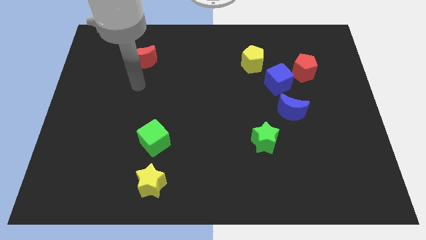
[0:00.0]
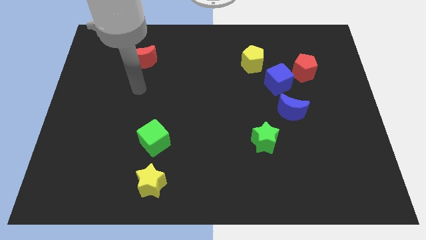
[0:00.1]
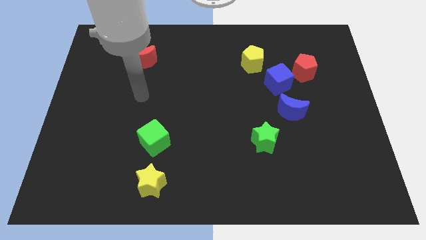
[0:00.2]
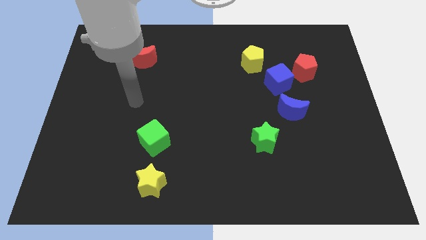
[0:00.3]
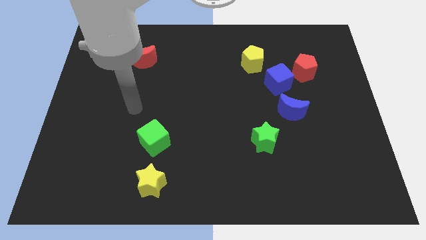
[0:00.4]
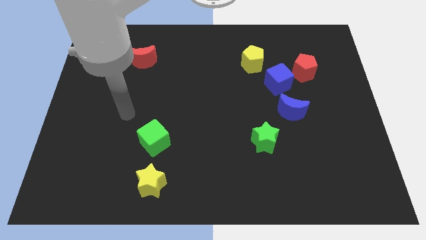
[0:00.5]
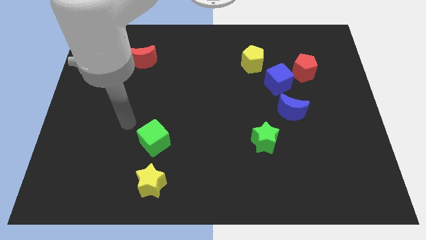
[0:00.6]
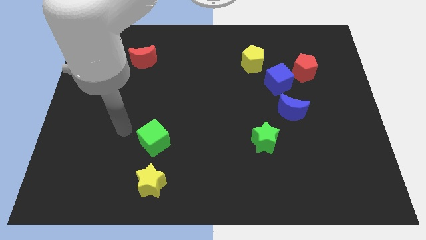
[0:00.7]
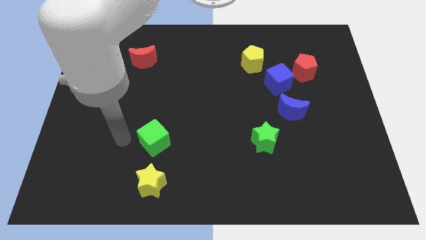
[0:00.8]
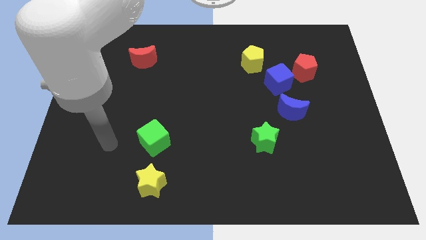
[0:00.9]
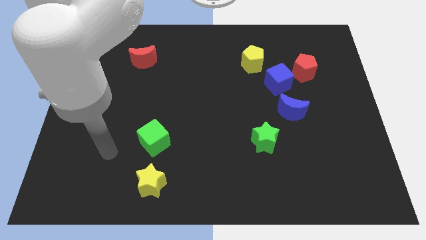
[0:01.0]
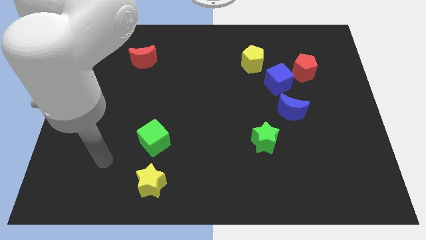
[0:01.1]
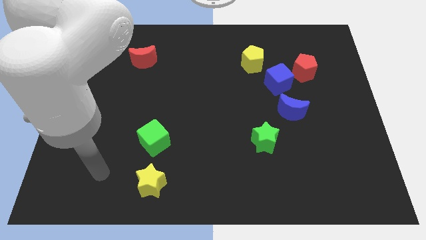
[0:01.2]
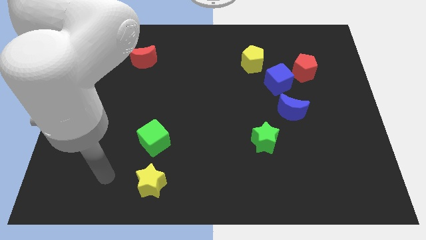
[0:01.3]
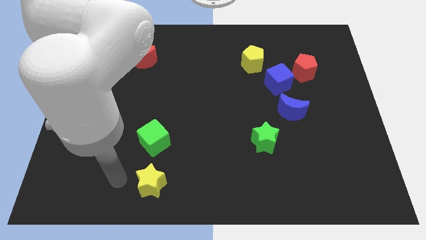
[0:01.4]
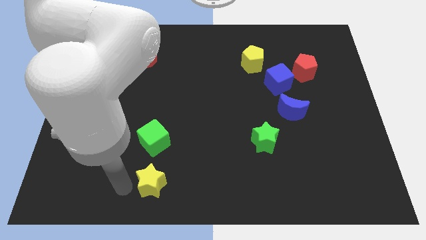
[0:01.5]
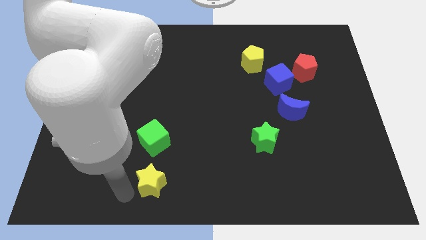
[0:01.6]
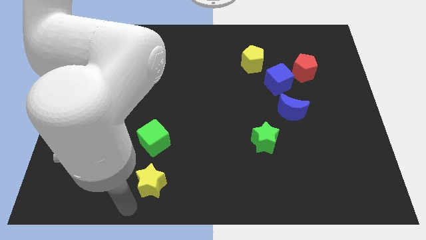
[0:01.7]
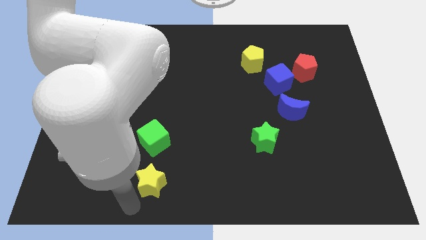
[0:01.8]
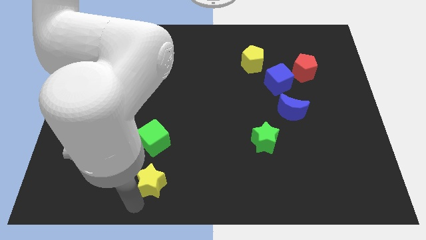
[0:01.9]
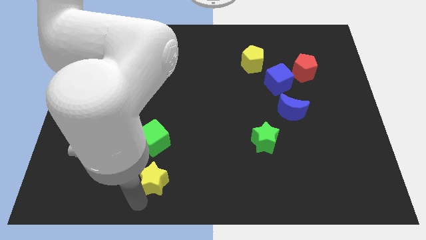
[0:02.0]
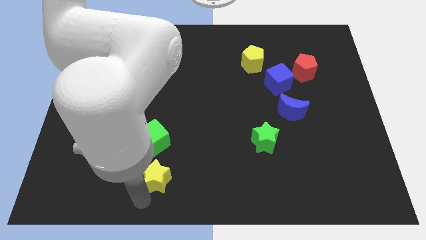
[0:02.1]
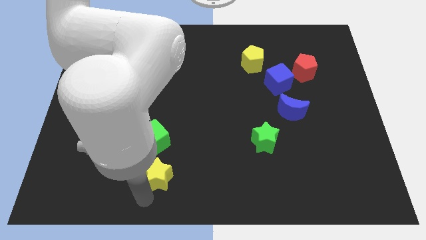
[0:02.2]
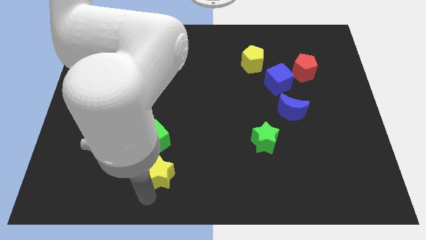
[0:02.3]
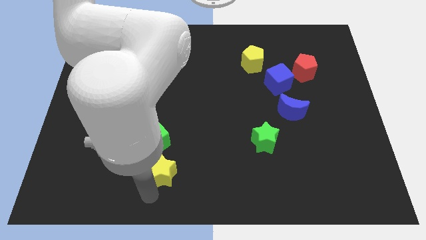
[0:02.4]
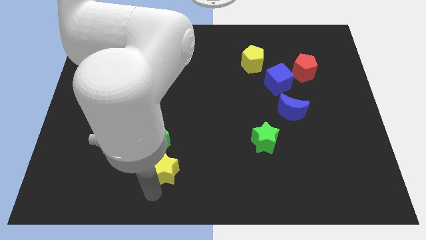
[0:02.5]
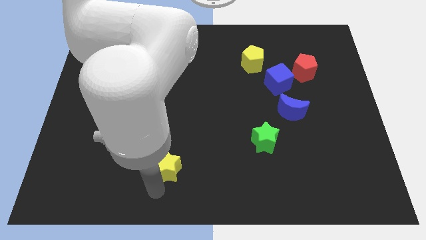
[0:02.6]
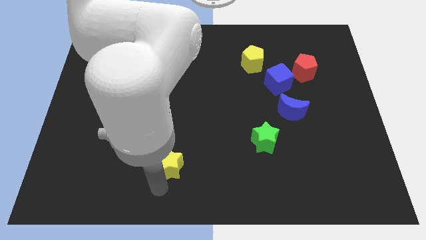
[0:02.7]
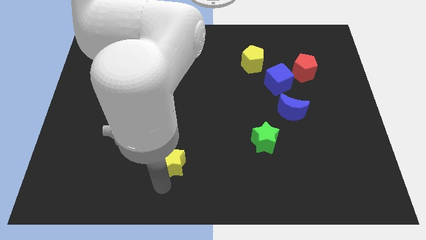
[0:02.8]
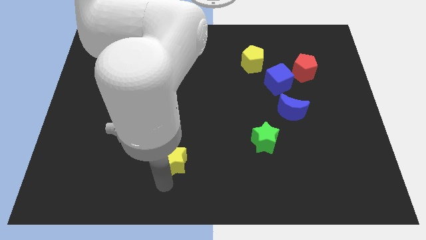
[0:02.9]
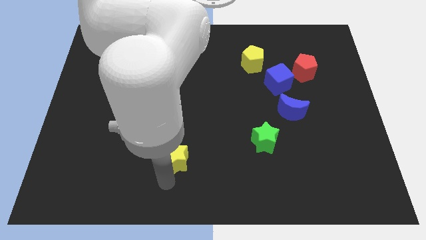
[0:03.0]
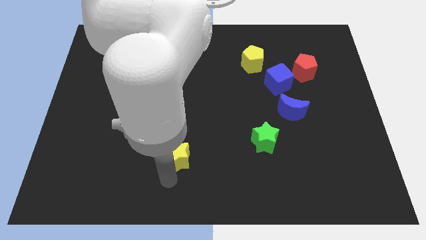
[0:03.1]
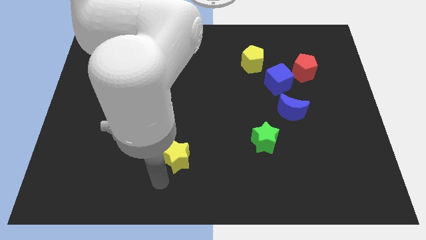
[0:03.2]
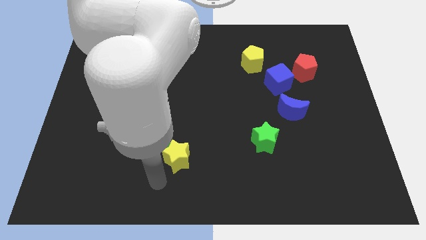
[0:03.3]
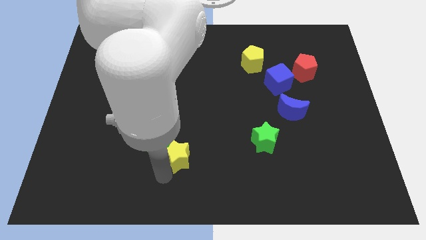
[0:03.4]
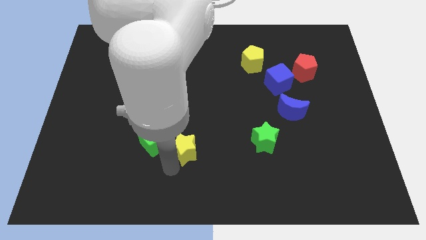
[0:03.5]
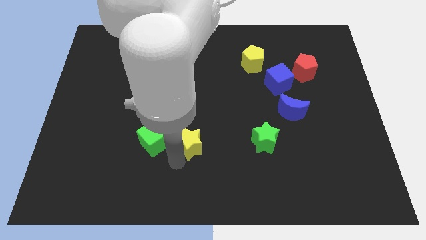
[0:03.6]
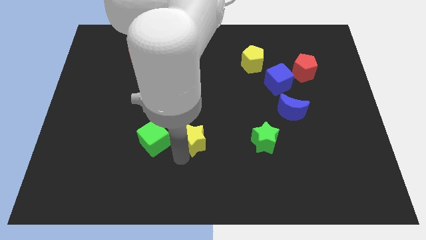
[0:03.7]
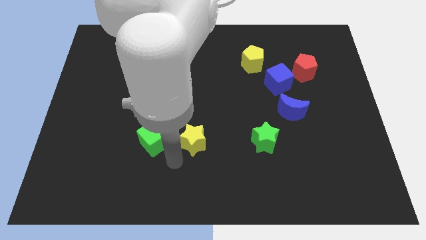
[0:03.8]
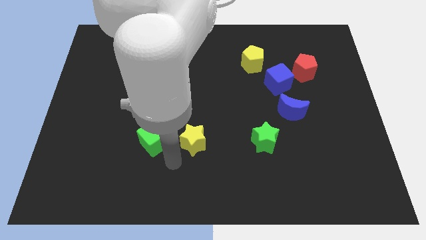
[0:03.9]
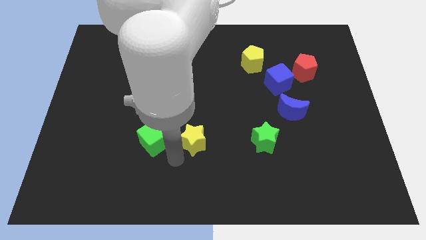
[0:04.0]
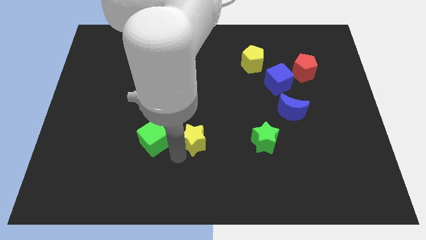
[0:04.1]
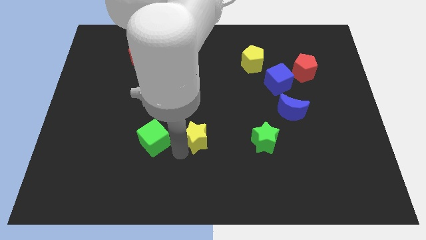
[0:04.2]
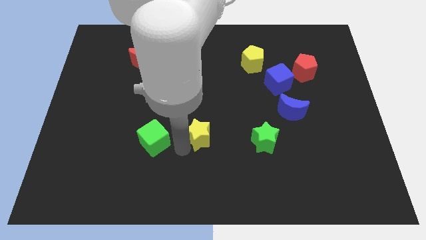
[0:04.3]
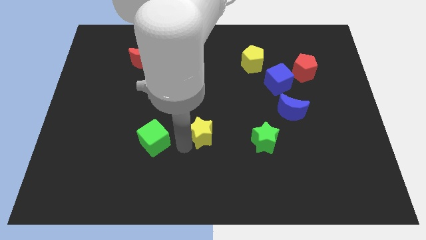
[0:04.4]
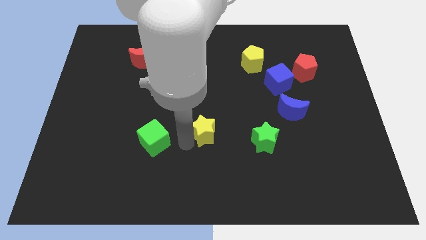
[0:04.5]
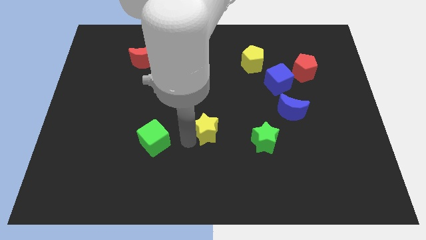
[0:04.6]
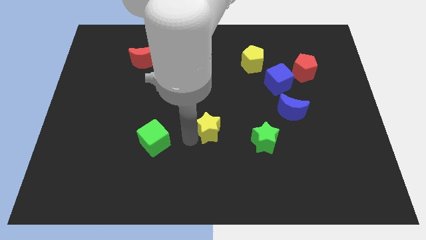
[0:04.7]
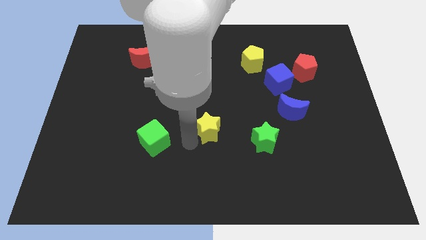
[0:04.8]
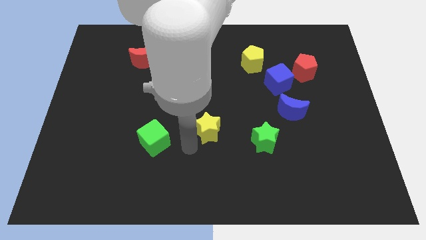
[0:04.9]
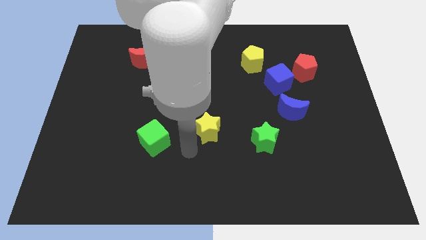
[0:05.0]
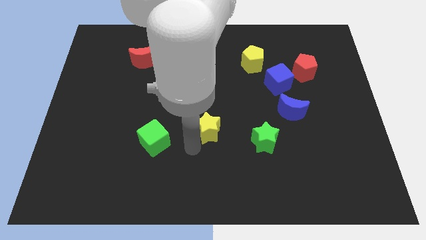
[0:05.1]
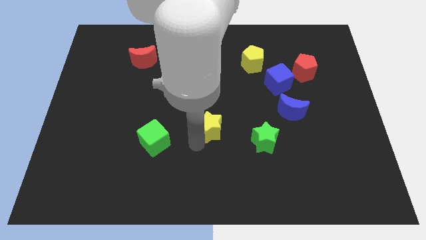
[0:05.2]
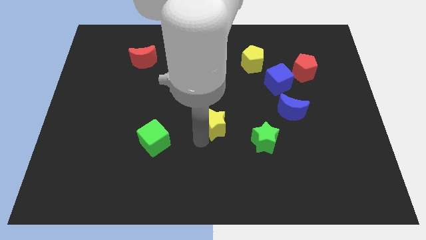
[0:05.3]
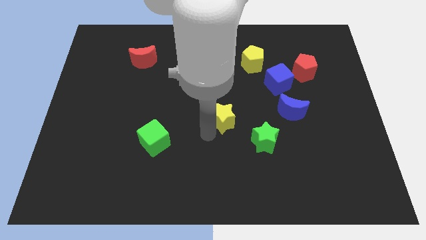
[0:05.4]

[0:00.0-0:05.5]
slide the yellow star up and to the right diagonally

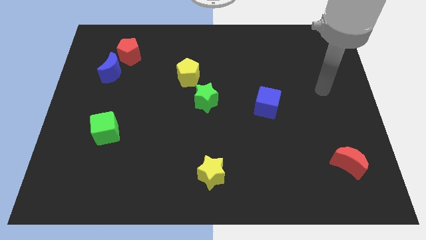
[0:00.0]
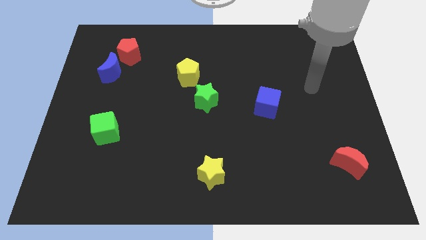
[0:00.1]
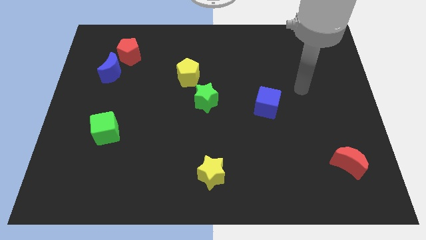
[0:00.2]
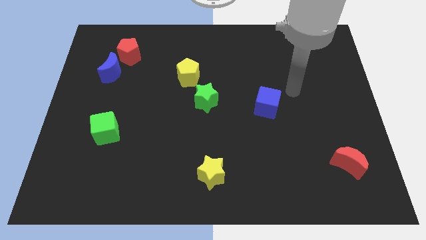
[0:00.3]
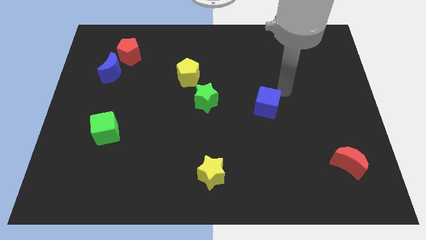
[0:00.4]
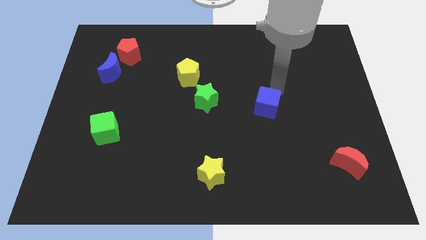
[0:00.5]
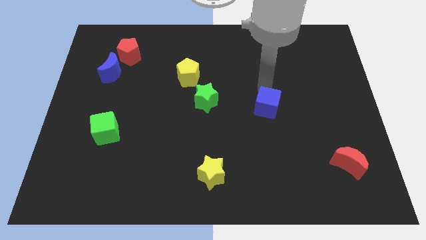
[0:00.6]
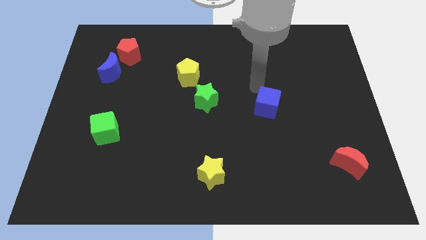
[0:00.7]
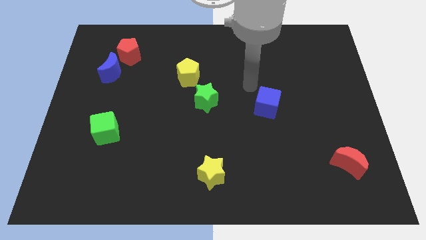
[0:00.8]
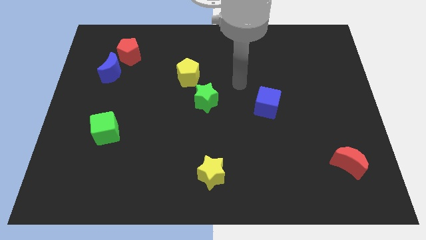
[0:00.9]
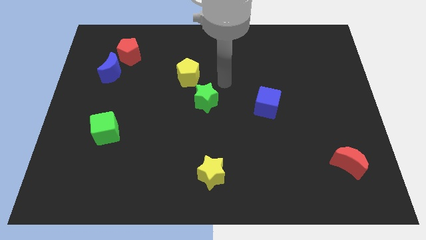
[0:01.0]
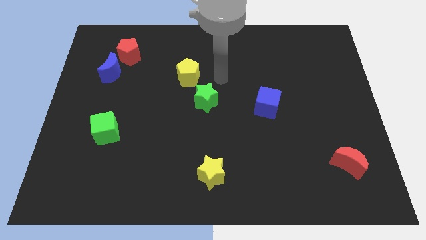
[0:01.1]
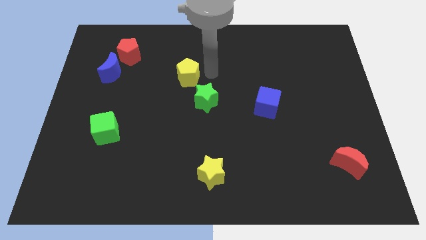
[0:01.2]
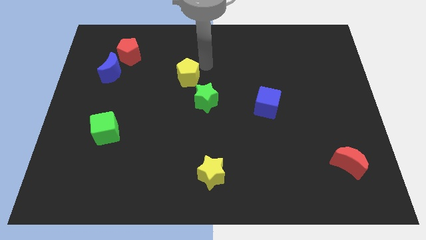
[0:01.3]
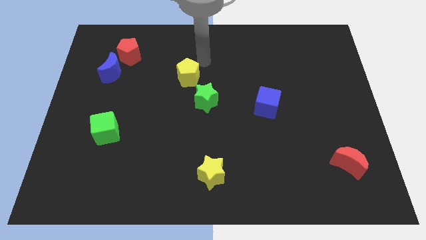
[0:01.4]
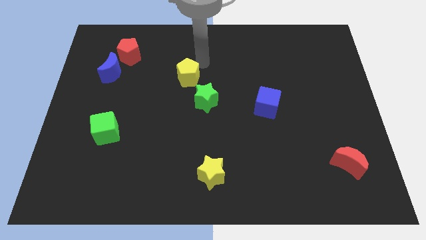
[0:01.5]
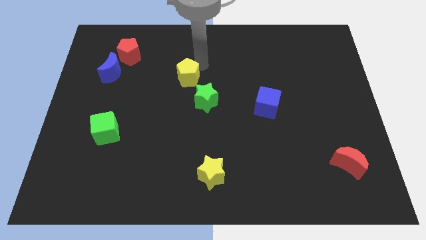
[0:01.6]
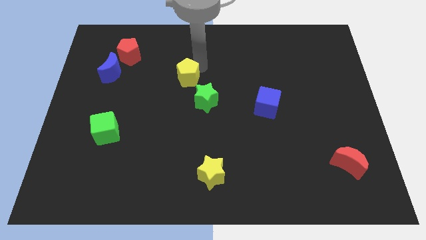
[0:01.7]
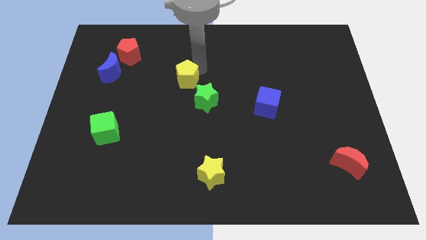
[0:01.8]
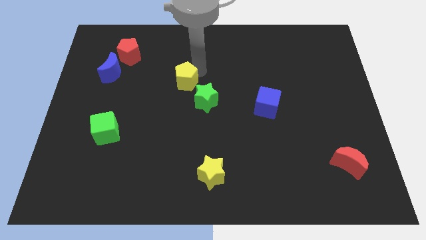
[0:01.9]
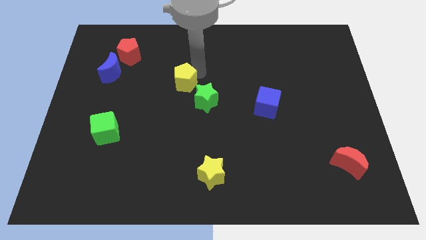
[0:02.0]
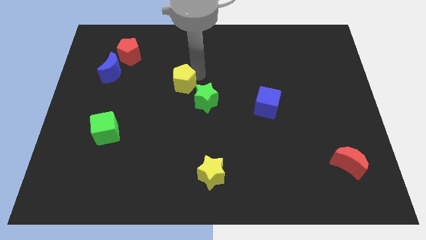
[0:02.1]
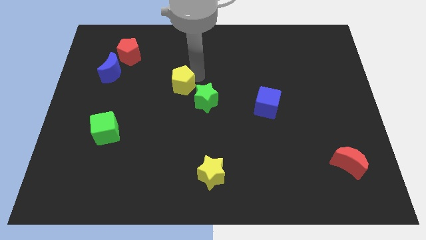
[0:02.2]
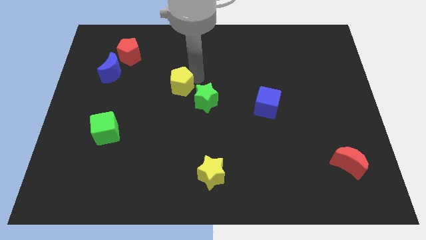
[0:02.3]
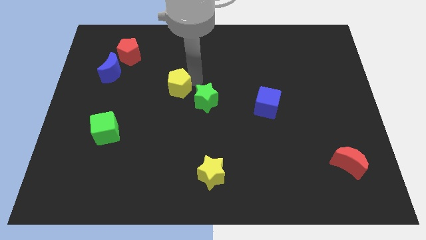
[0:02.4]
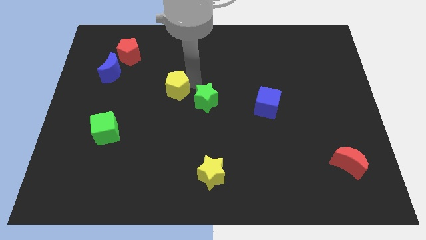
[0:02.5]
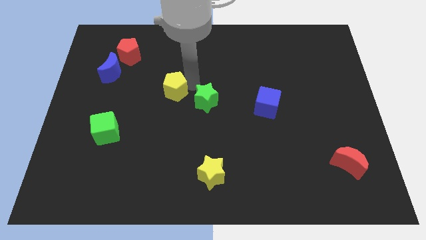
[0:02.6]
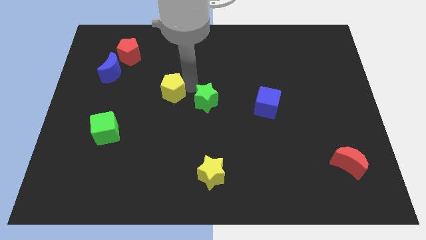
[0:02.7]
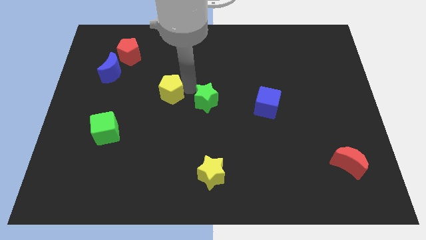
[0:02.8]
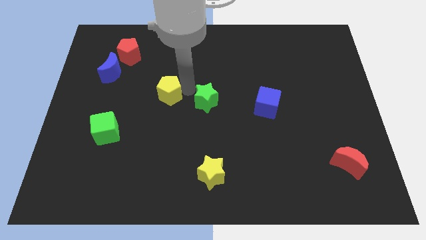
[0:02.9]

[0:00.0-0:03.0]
slightly push the yellow pentagon down and then to the left
